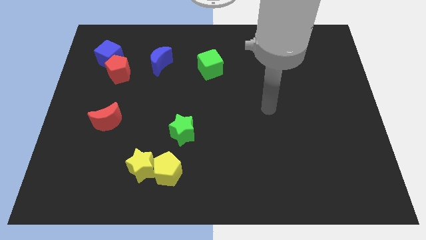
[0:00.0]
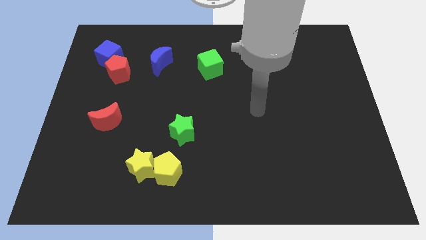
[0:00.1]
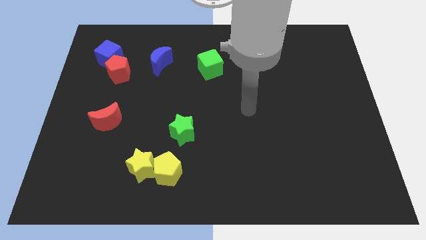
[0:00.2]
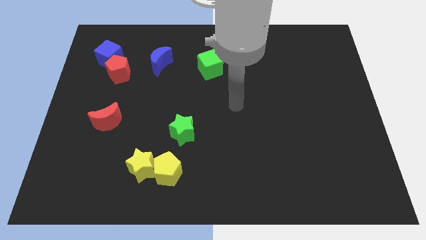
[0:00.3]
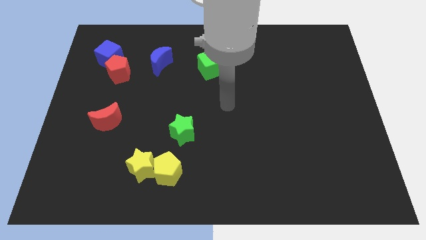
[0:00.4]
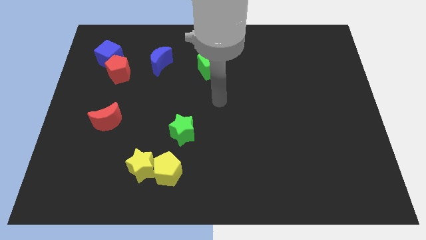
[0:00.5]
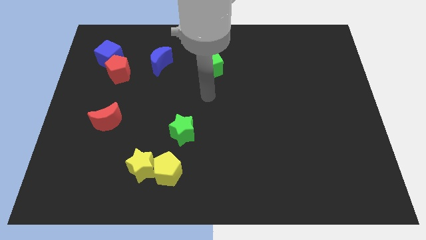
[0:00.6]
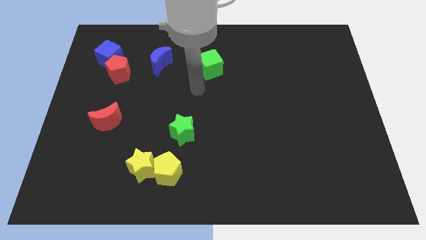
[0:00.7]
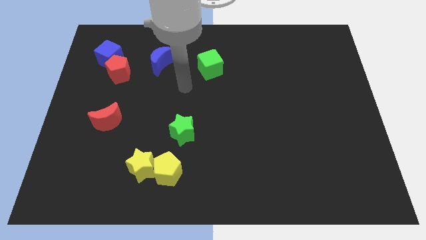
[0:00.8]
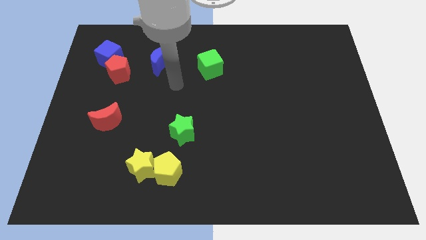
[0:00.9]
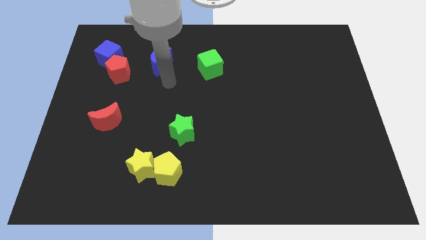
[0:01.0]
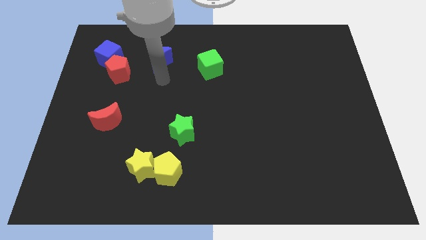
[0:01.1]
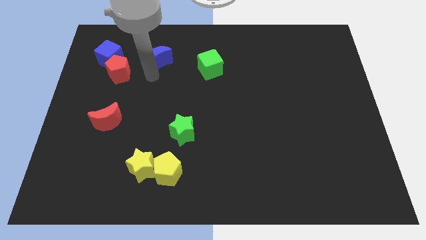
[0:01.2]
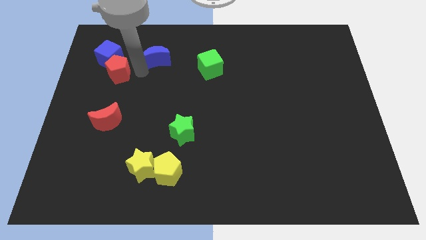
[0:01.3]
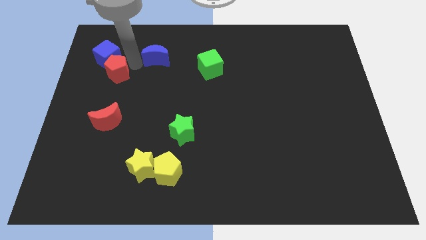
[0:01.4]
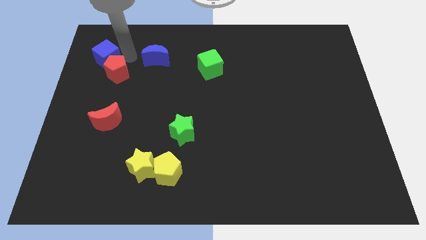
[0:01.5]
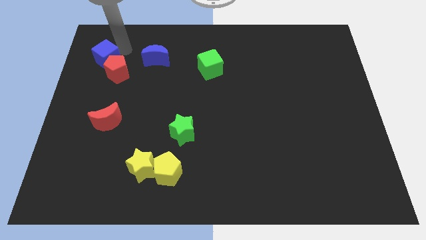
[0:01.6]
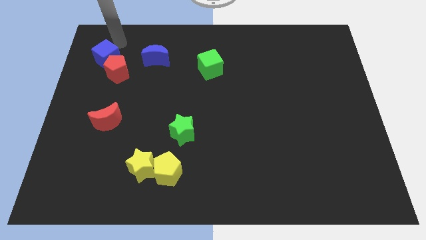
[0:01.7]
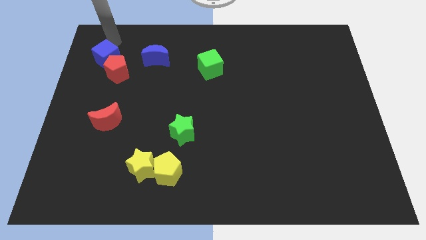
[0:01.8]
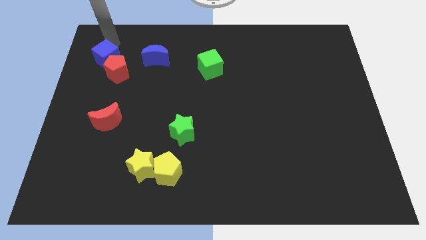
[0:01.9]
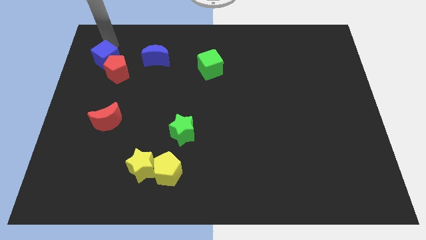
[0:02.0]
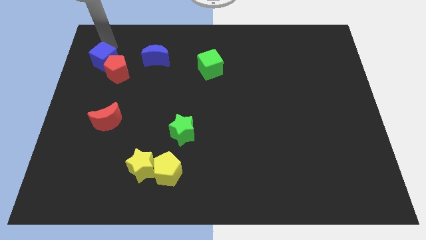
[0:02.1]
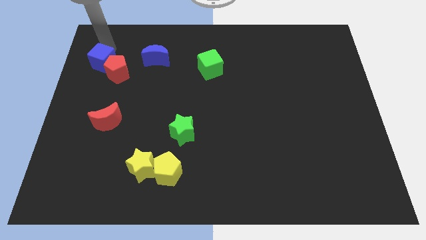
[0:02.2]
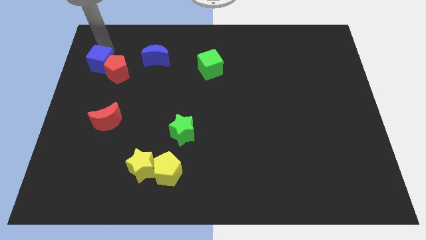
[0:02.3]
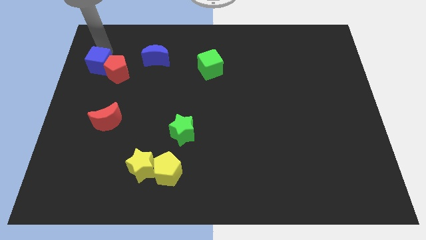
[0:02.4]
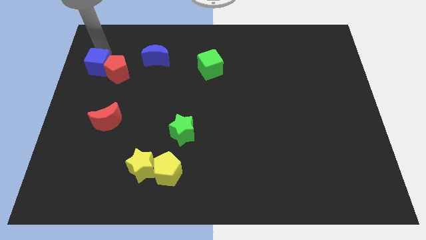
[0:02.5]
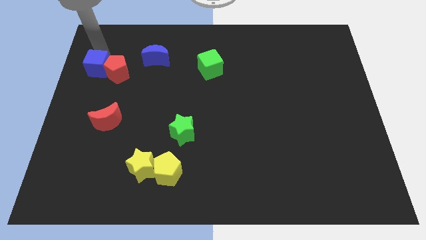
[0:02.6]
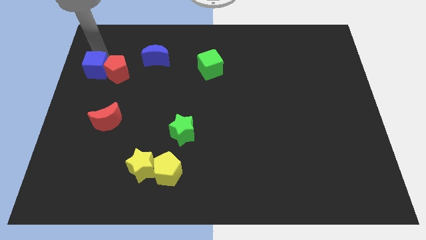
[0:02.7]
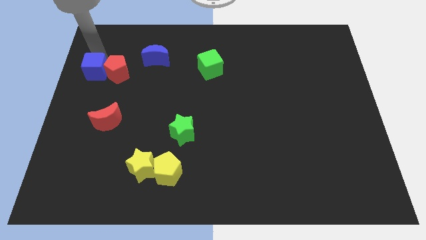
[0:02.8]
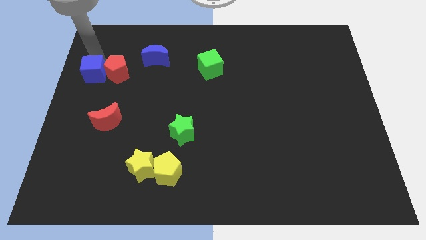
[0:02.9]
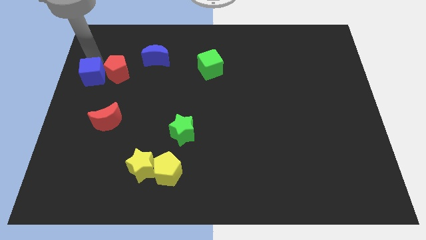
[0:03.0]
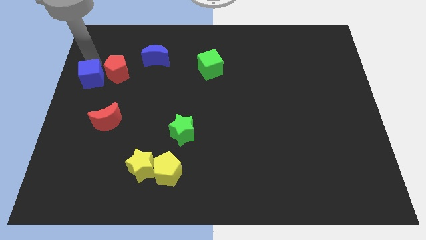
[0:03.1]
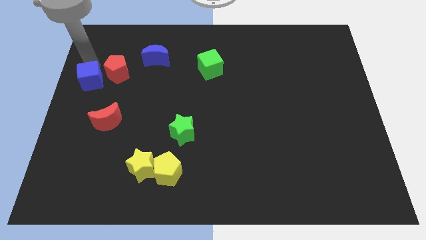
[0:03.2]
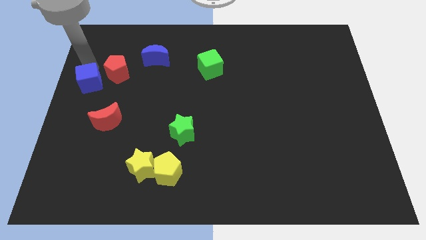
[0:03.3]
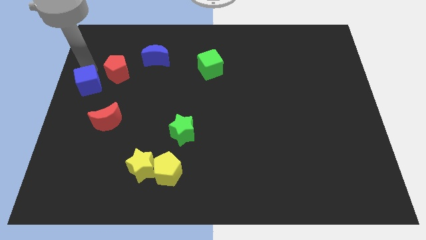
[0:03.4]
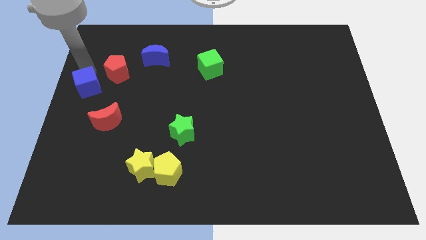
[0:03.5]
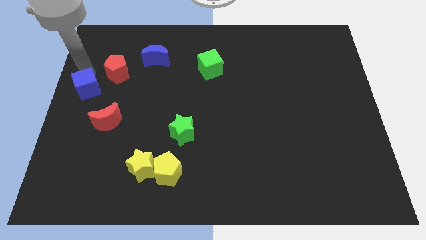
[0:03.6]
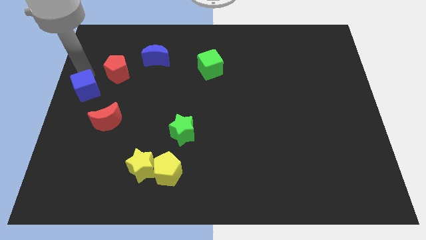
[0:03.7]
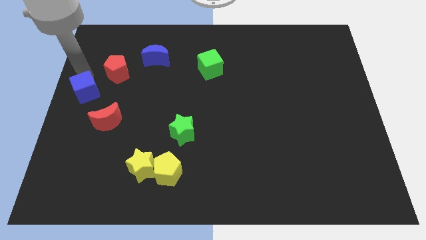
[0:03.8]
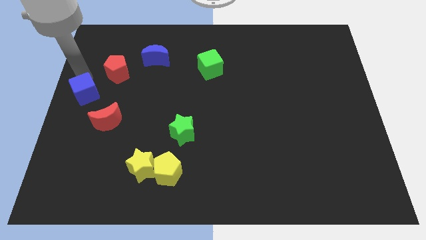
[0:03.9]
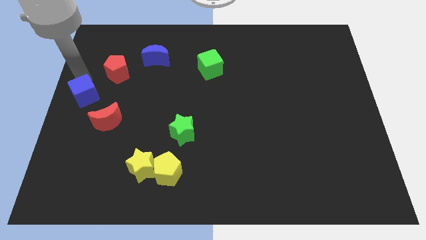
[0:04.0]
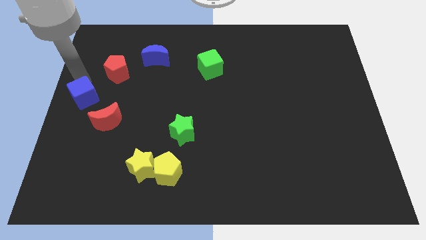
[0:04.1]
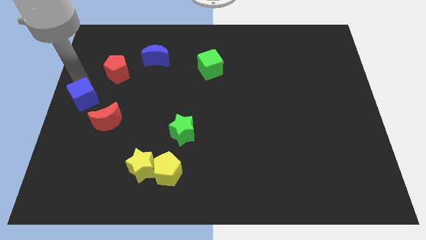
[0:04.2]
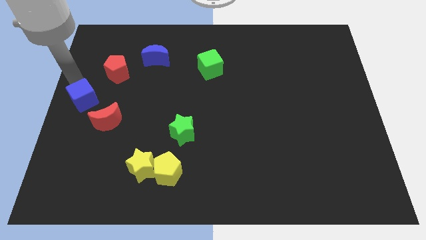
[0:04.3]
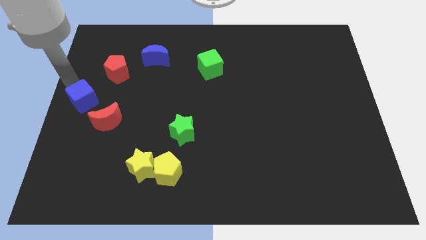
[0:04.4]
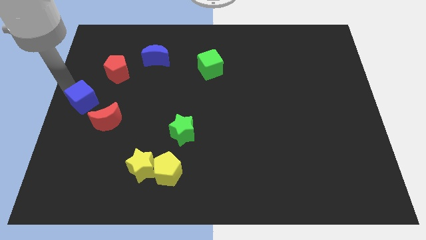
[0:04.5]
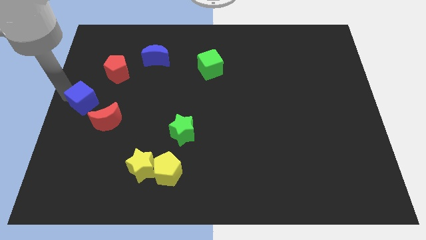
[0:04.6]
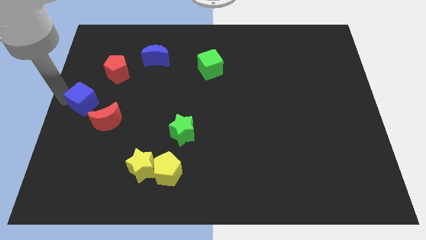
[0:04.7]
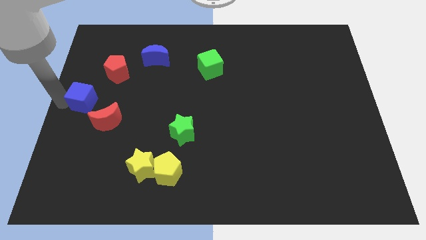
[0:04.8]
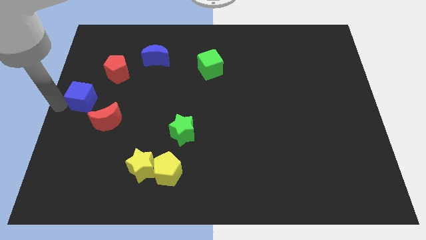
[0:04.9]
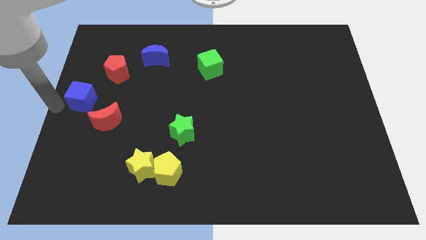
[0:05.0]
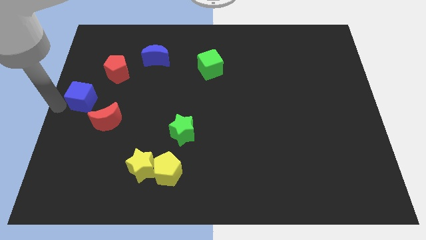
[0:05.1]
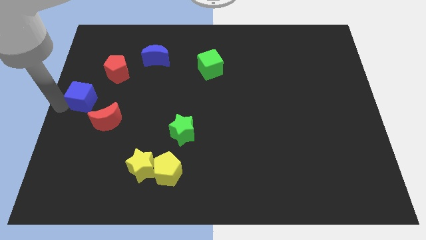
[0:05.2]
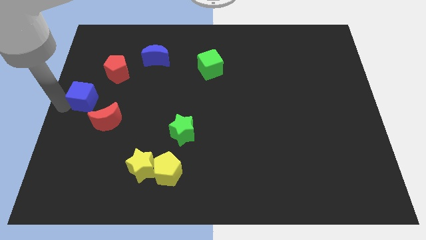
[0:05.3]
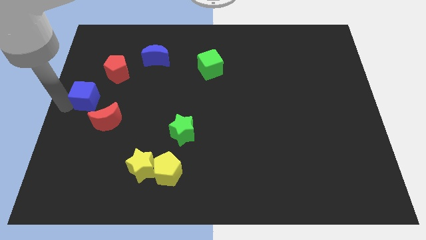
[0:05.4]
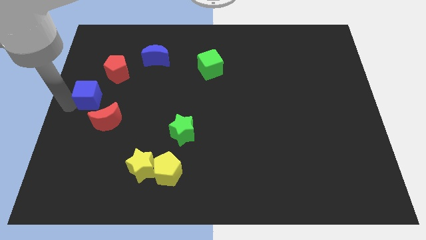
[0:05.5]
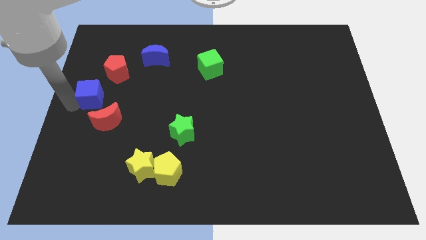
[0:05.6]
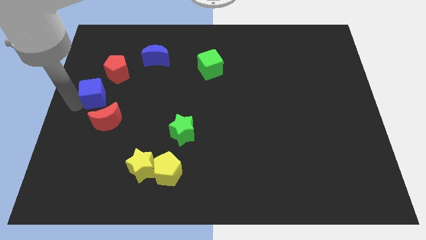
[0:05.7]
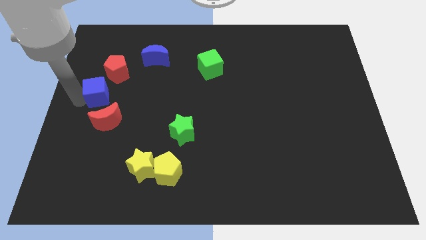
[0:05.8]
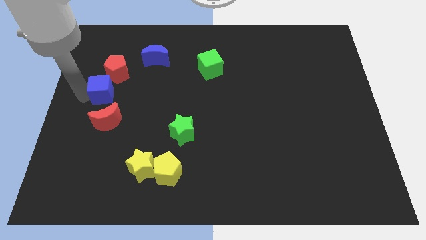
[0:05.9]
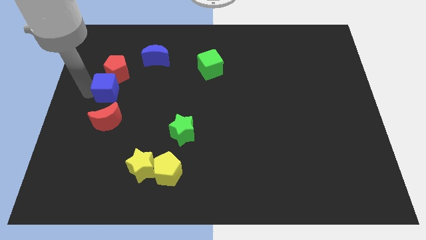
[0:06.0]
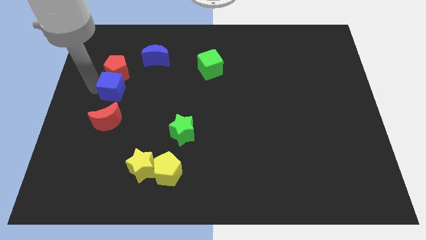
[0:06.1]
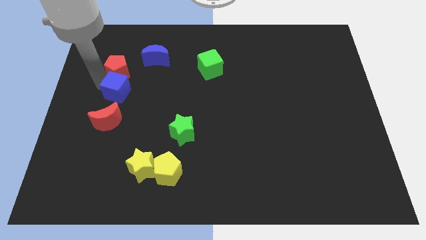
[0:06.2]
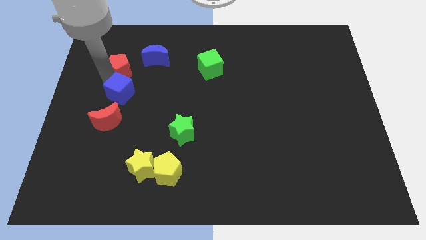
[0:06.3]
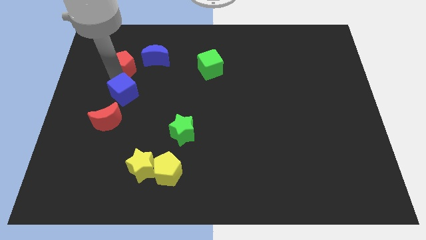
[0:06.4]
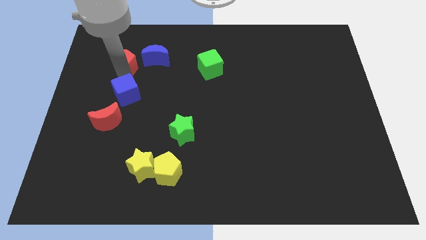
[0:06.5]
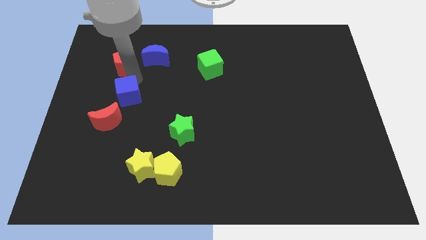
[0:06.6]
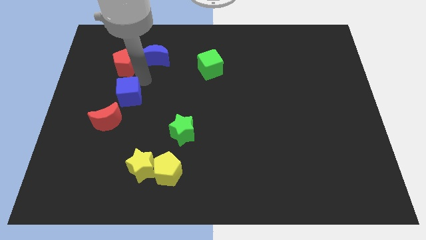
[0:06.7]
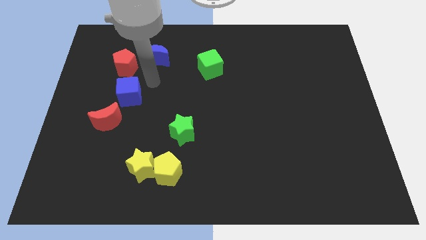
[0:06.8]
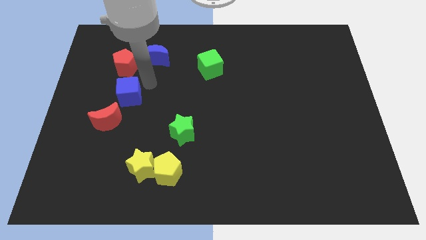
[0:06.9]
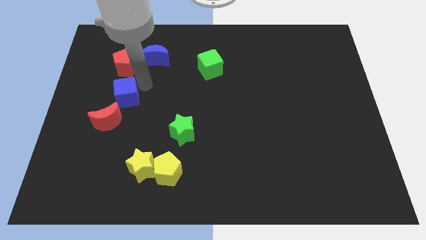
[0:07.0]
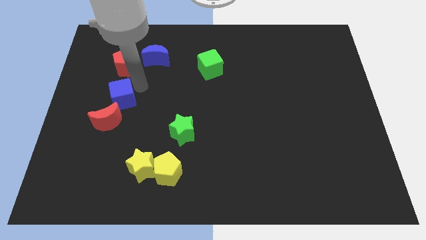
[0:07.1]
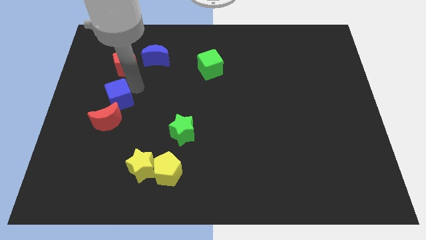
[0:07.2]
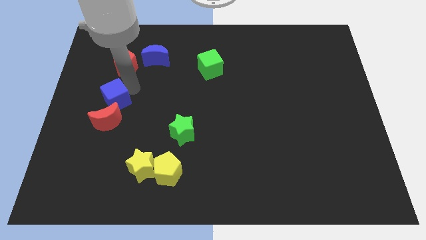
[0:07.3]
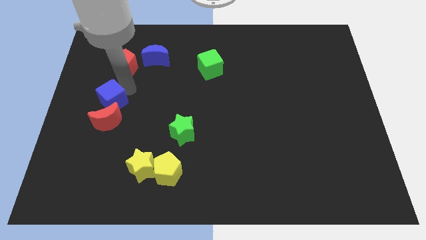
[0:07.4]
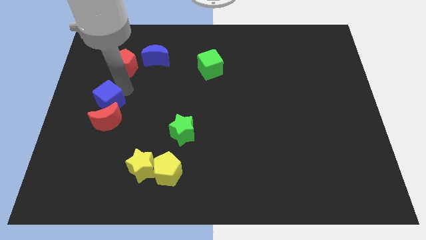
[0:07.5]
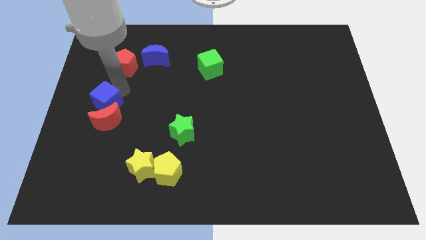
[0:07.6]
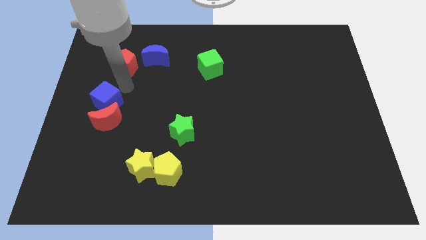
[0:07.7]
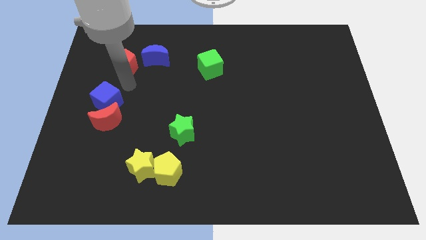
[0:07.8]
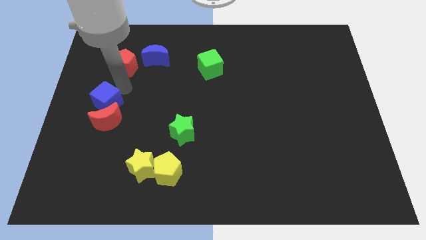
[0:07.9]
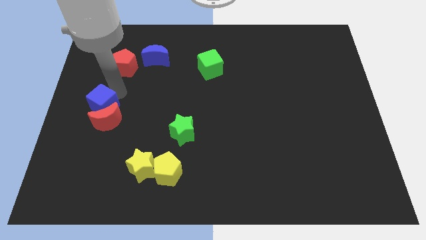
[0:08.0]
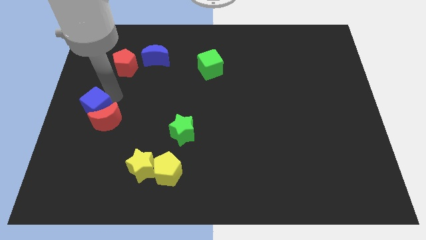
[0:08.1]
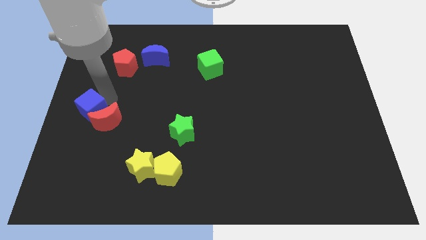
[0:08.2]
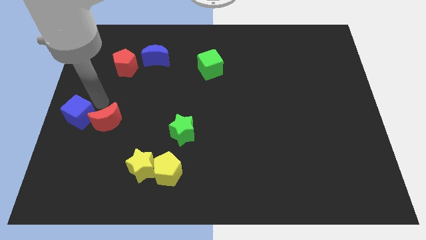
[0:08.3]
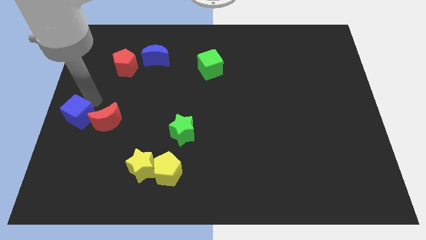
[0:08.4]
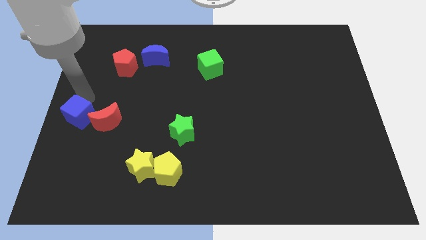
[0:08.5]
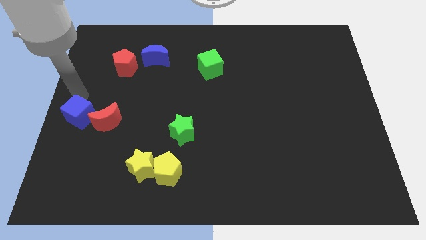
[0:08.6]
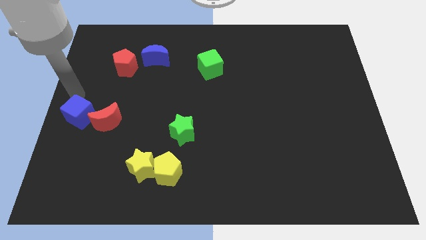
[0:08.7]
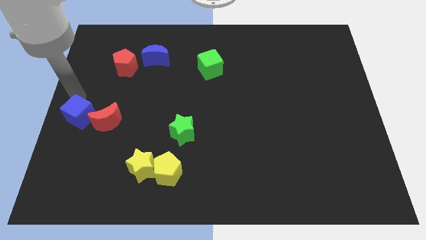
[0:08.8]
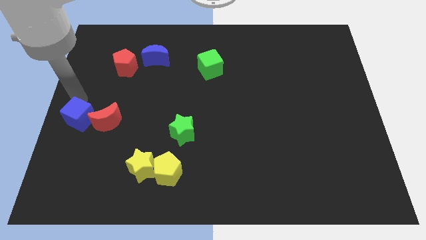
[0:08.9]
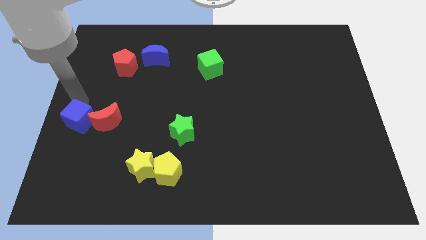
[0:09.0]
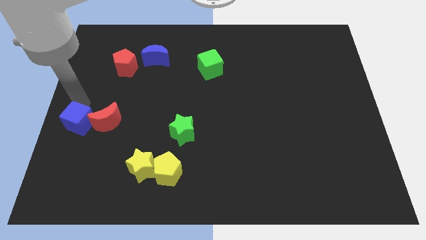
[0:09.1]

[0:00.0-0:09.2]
move the blue cube downwards
